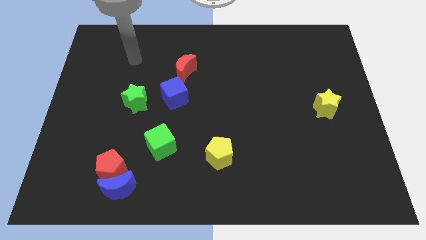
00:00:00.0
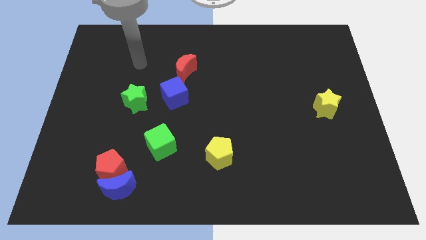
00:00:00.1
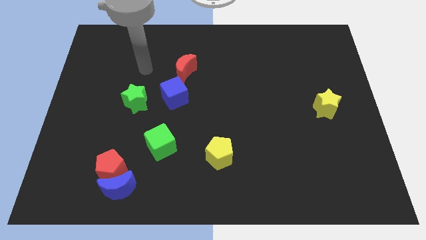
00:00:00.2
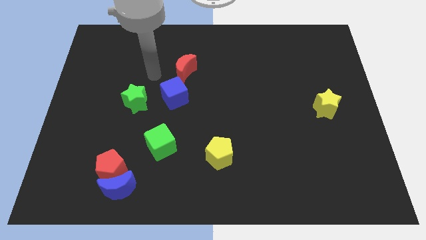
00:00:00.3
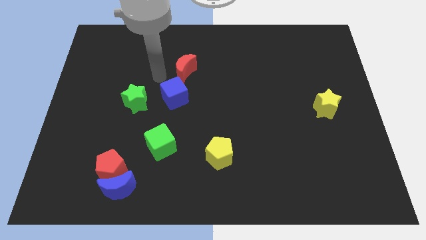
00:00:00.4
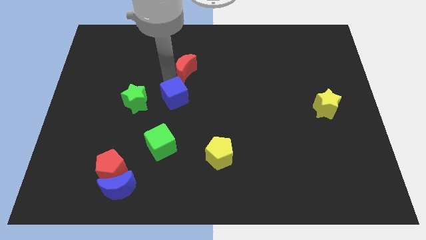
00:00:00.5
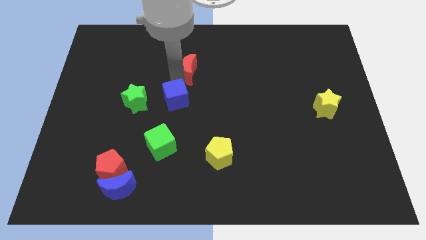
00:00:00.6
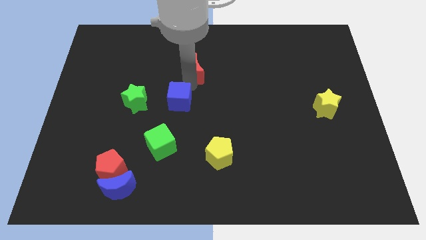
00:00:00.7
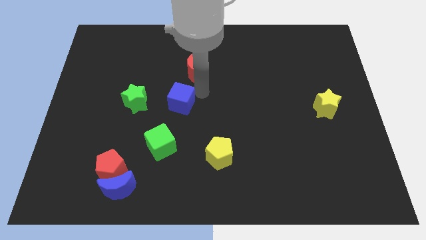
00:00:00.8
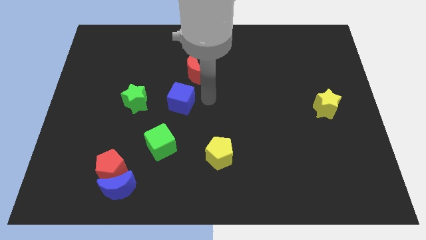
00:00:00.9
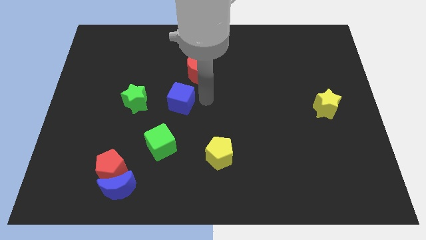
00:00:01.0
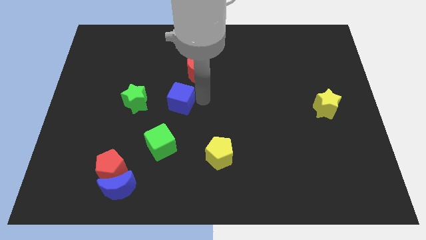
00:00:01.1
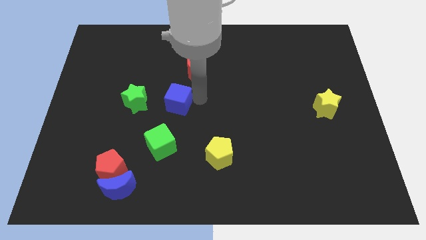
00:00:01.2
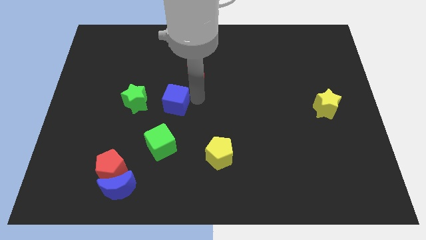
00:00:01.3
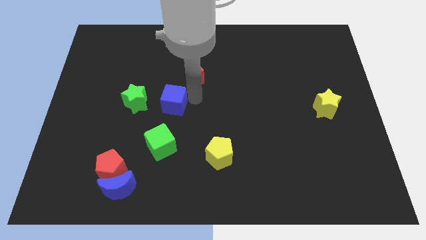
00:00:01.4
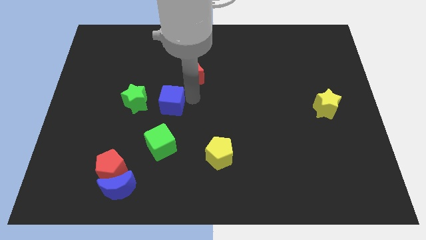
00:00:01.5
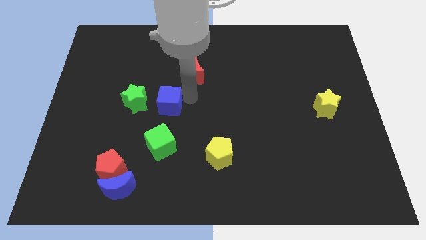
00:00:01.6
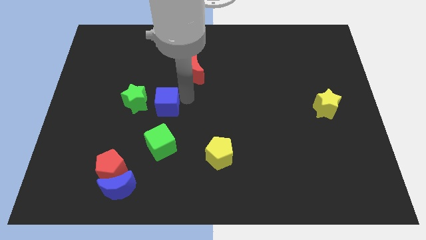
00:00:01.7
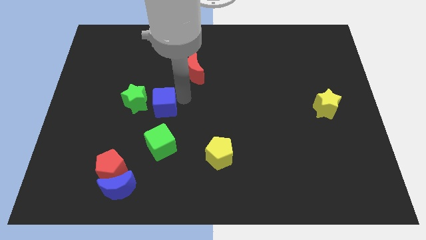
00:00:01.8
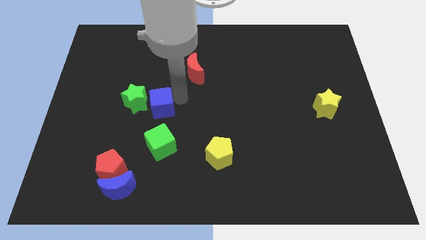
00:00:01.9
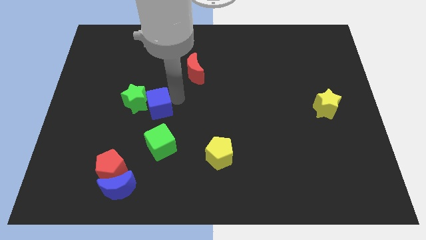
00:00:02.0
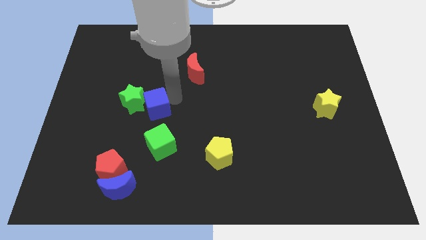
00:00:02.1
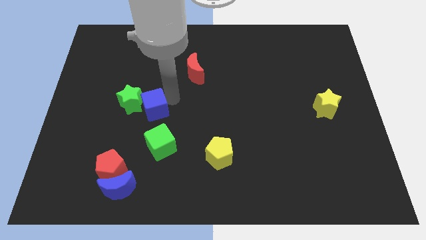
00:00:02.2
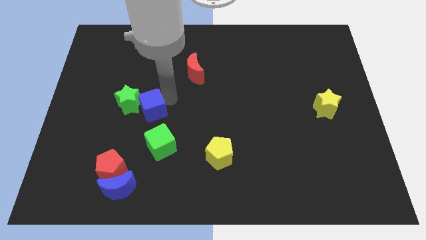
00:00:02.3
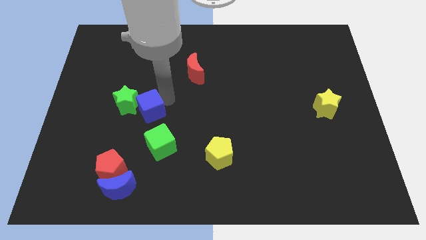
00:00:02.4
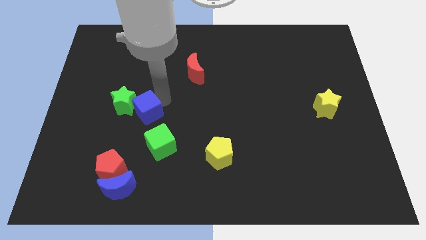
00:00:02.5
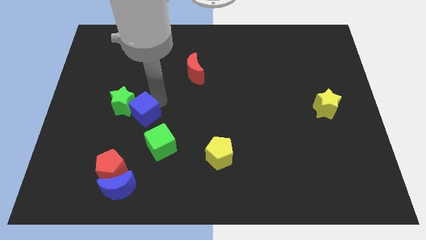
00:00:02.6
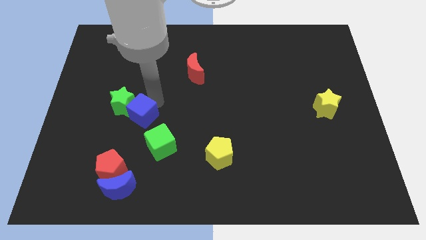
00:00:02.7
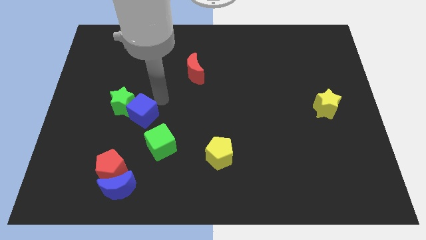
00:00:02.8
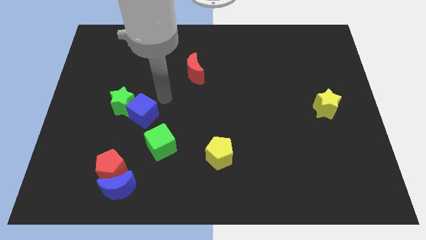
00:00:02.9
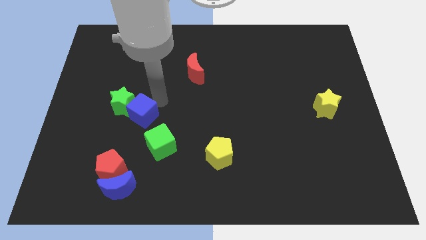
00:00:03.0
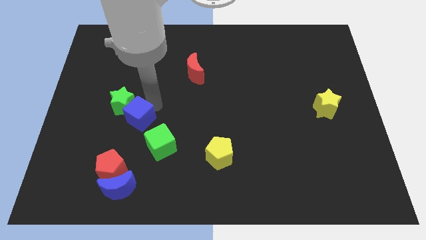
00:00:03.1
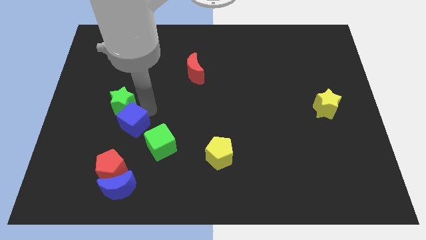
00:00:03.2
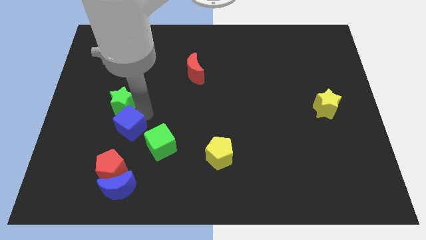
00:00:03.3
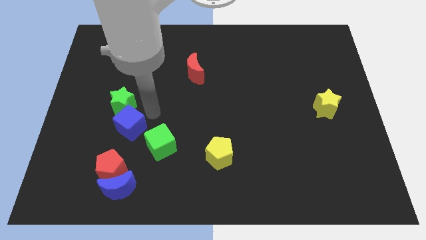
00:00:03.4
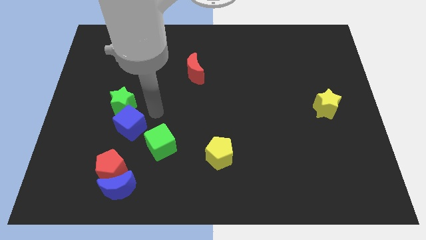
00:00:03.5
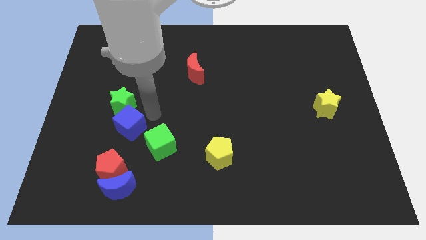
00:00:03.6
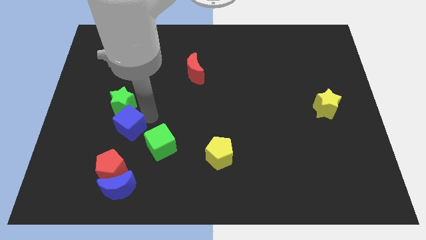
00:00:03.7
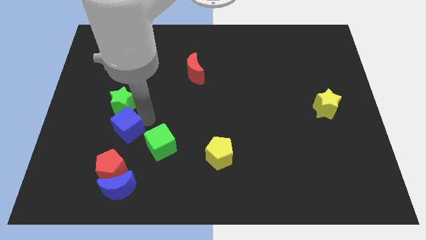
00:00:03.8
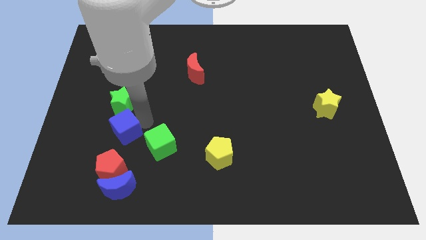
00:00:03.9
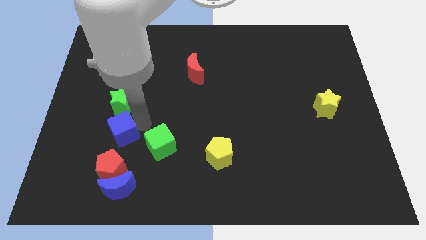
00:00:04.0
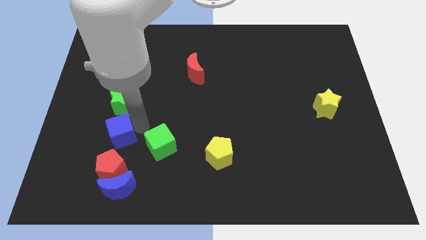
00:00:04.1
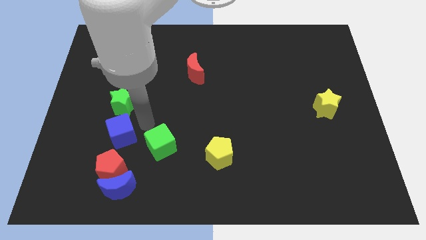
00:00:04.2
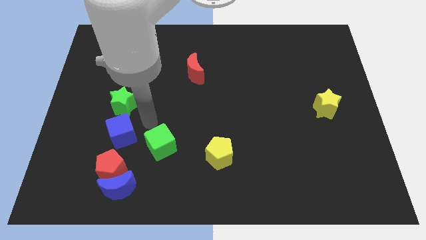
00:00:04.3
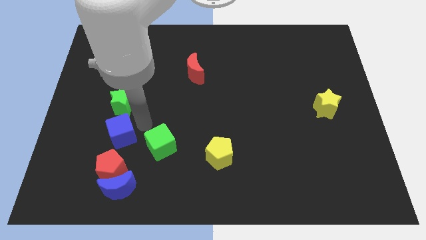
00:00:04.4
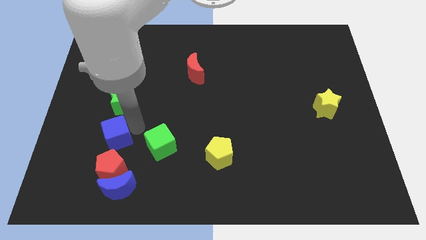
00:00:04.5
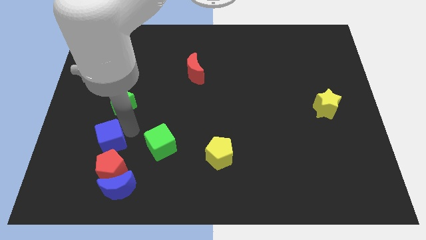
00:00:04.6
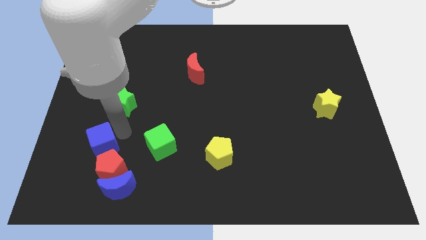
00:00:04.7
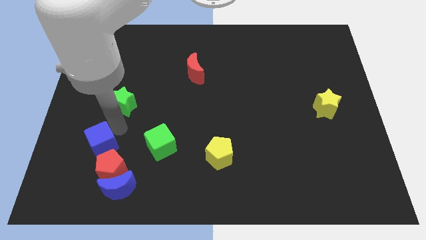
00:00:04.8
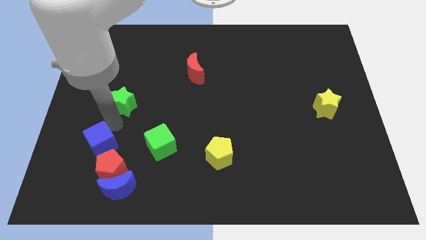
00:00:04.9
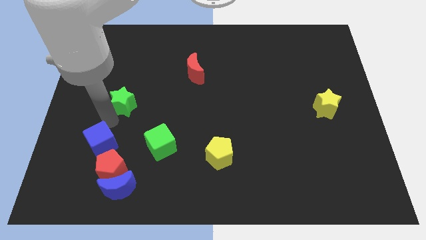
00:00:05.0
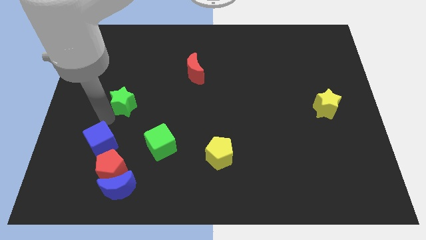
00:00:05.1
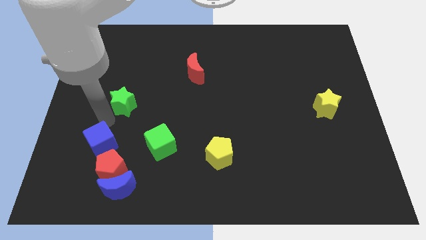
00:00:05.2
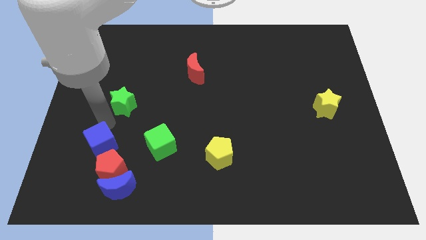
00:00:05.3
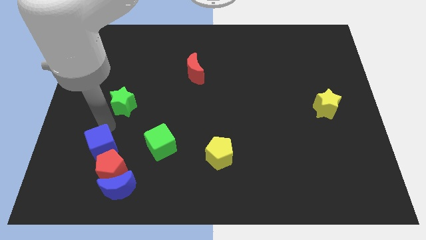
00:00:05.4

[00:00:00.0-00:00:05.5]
push the blue cube to the top left of the blue moon

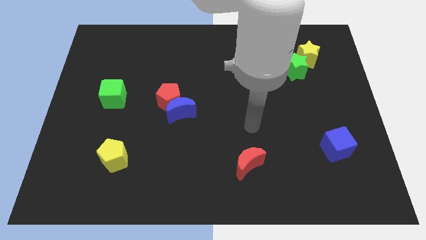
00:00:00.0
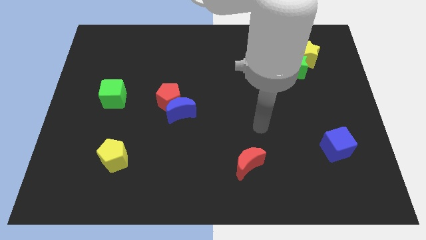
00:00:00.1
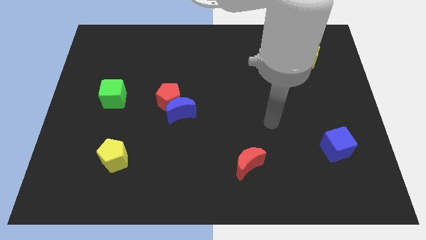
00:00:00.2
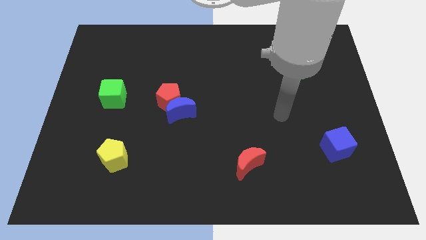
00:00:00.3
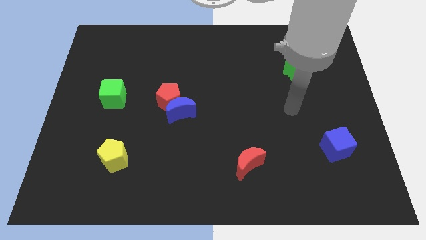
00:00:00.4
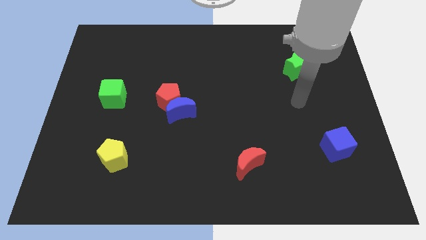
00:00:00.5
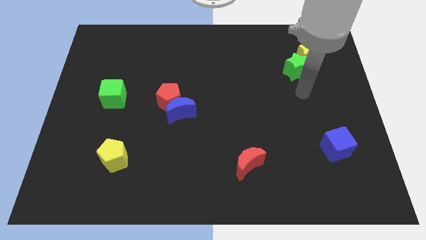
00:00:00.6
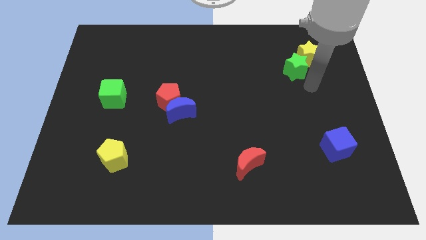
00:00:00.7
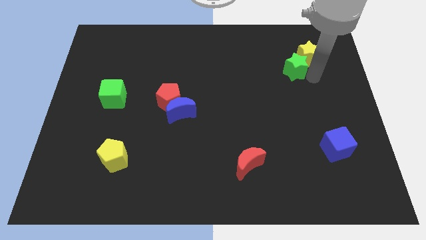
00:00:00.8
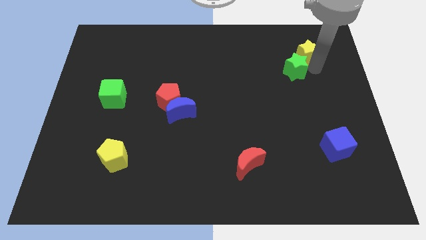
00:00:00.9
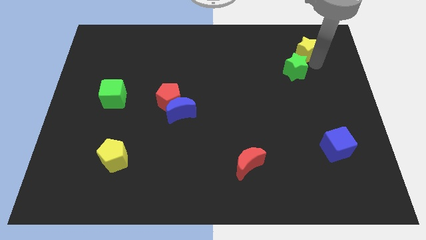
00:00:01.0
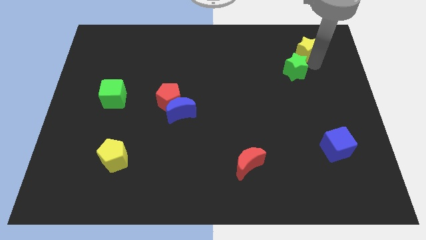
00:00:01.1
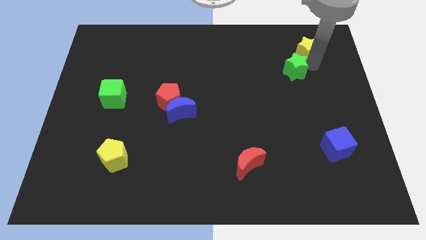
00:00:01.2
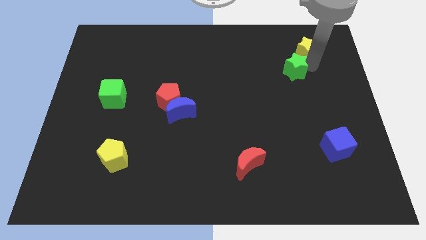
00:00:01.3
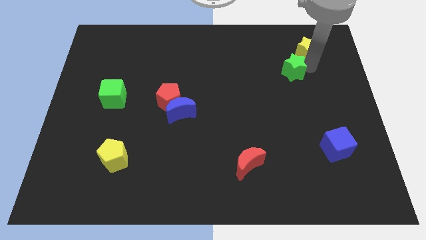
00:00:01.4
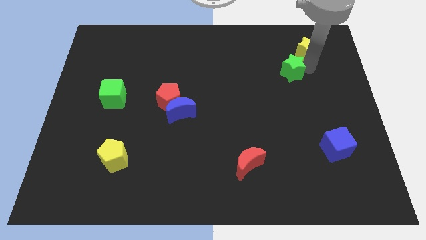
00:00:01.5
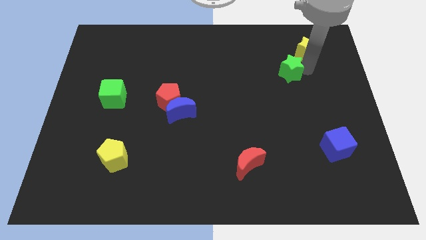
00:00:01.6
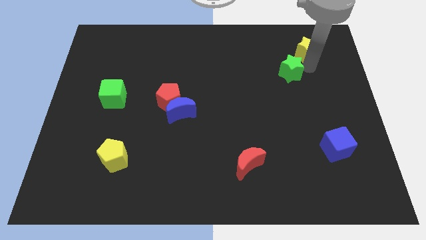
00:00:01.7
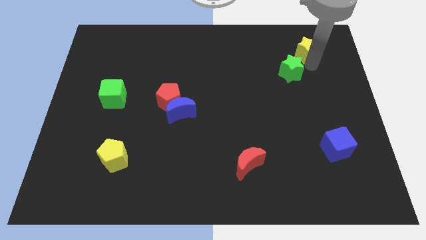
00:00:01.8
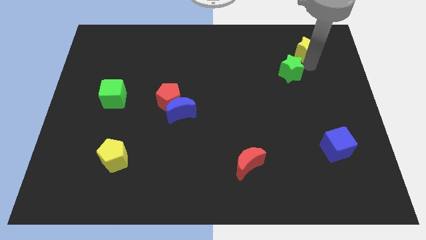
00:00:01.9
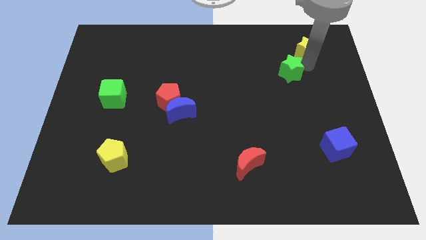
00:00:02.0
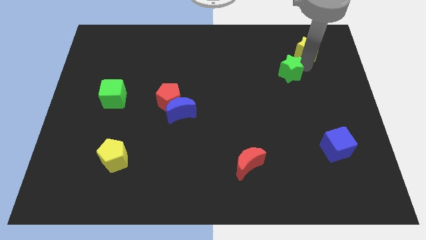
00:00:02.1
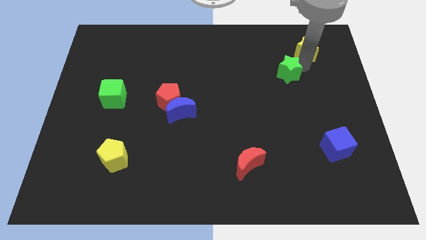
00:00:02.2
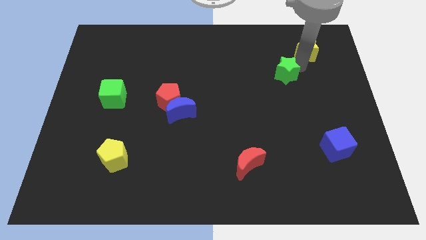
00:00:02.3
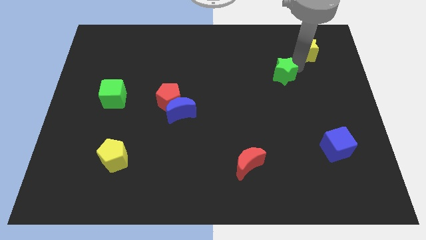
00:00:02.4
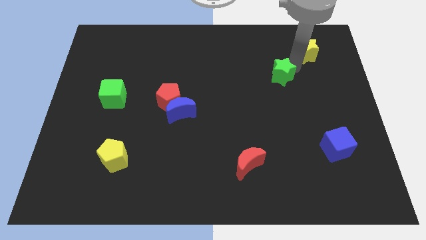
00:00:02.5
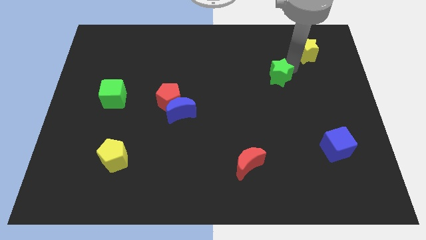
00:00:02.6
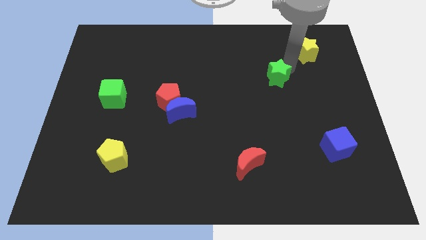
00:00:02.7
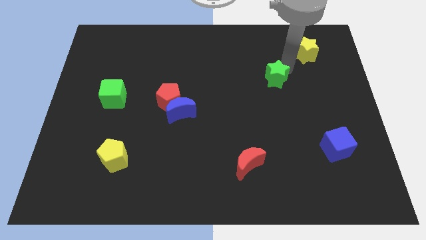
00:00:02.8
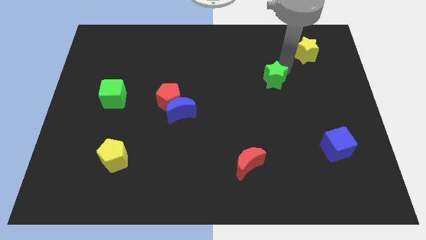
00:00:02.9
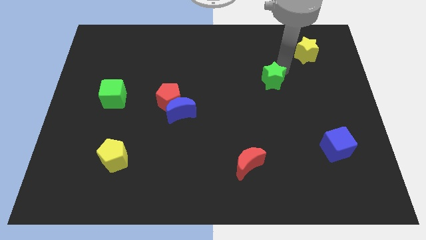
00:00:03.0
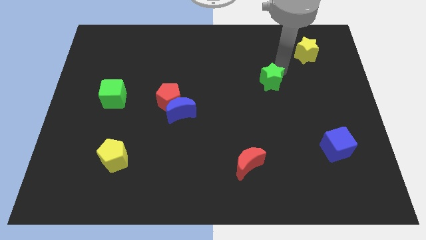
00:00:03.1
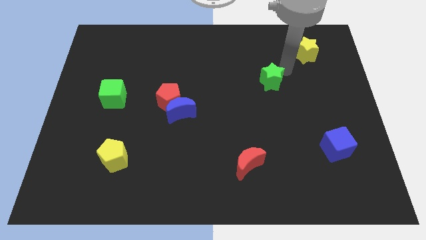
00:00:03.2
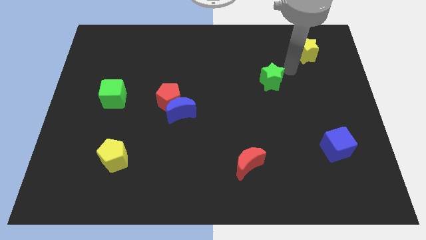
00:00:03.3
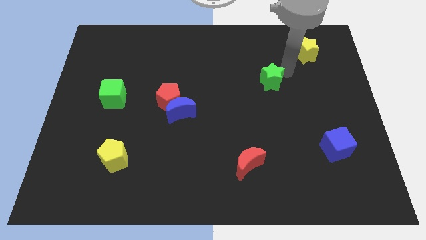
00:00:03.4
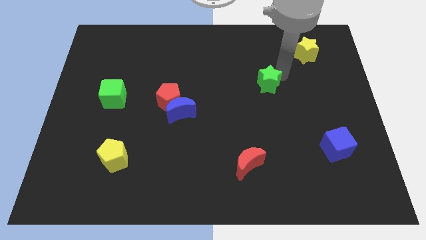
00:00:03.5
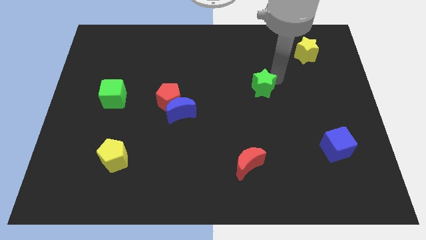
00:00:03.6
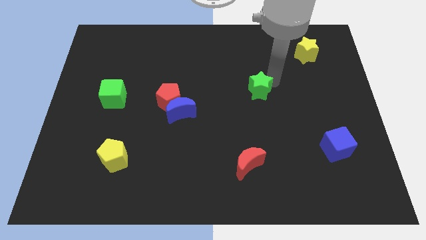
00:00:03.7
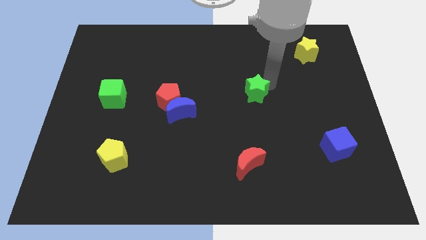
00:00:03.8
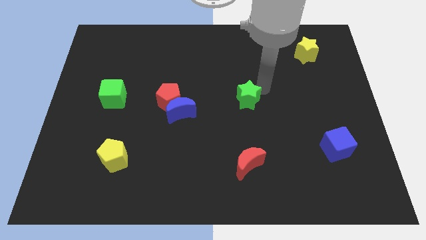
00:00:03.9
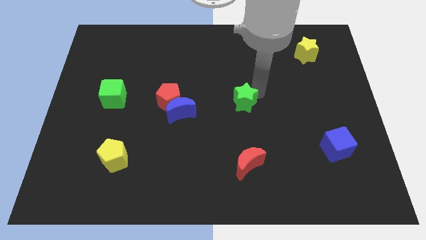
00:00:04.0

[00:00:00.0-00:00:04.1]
push the green star right of the blue moon
